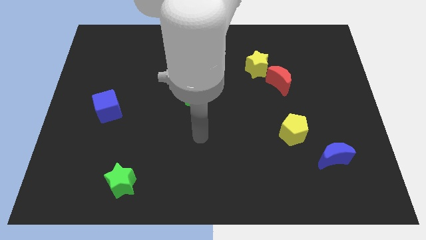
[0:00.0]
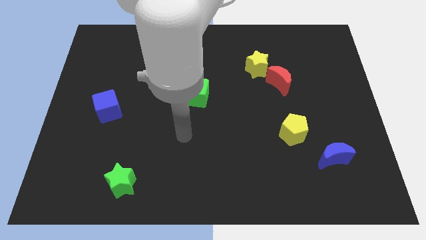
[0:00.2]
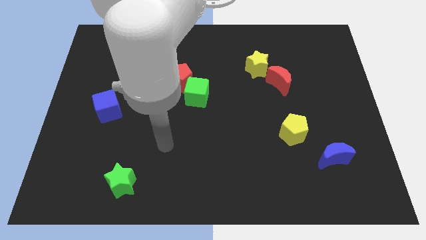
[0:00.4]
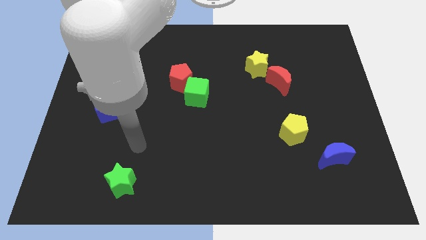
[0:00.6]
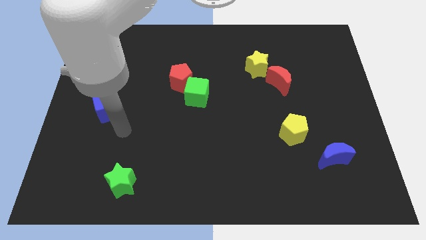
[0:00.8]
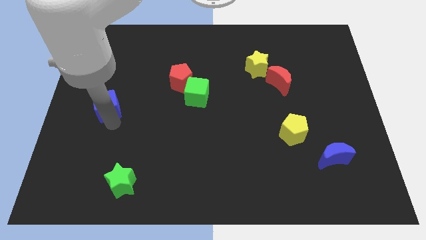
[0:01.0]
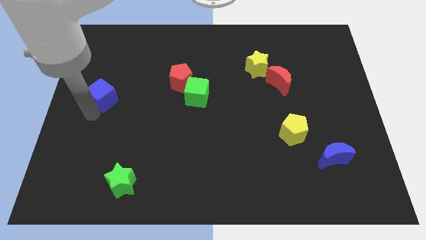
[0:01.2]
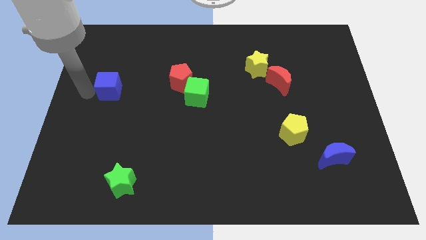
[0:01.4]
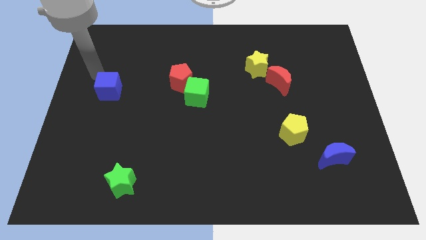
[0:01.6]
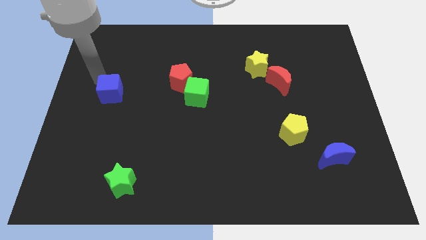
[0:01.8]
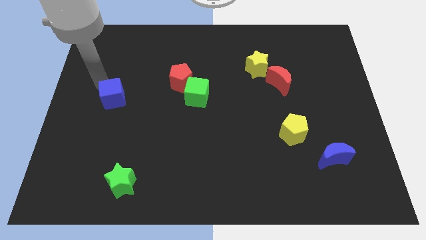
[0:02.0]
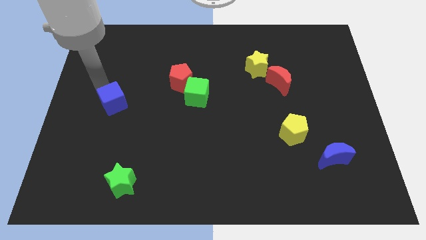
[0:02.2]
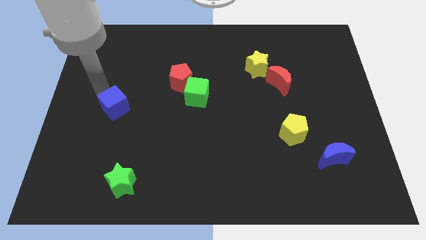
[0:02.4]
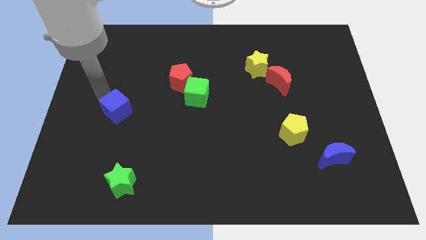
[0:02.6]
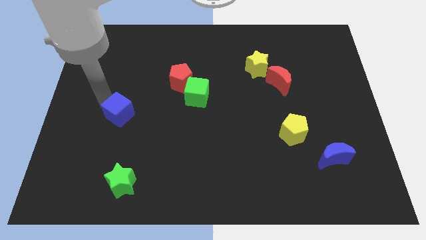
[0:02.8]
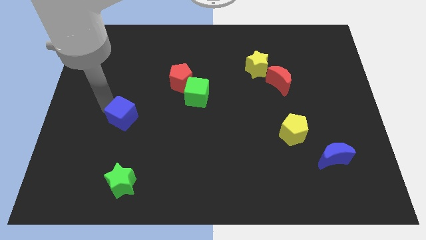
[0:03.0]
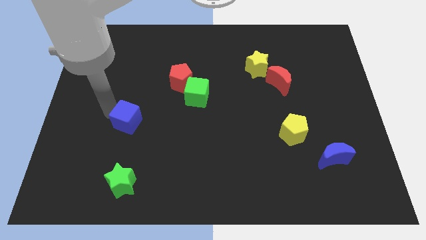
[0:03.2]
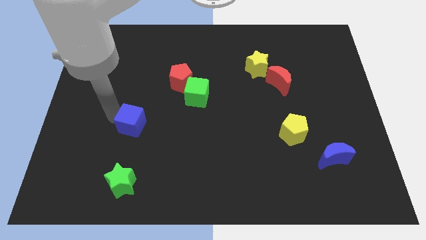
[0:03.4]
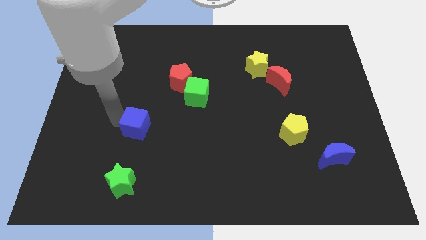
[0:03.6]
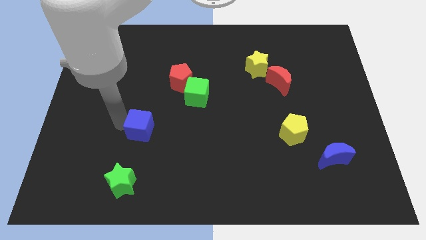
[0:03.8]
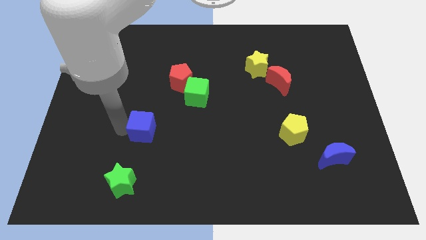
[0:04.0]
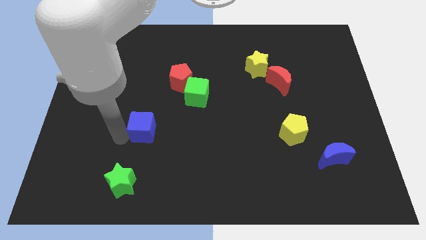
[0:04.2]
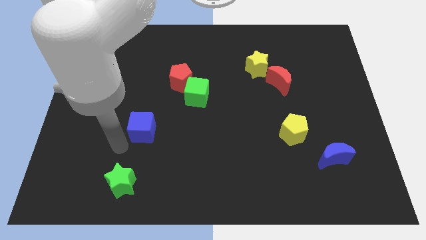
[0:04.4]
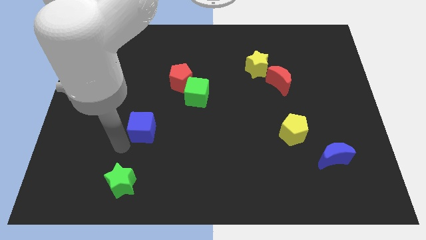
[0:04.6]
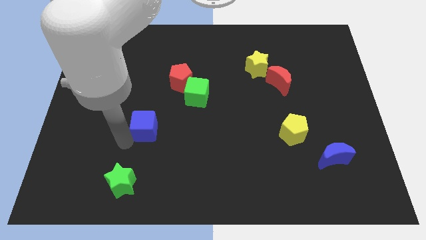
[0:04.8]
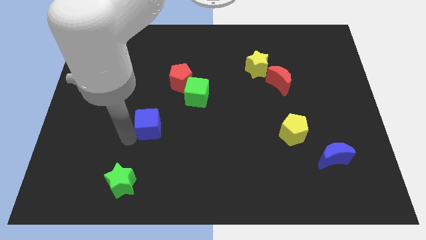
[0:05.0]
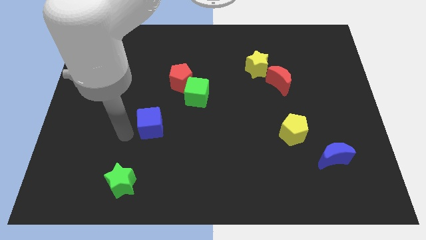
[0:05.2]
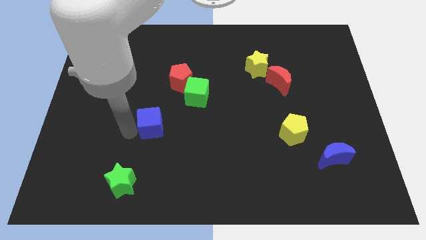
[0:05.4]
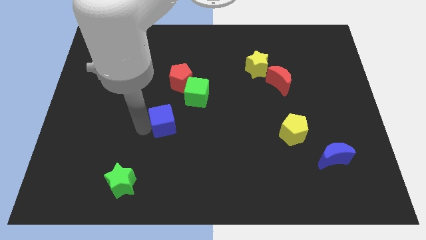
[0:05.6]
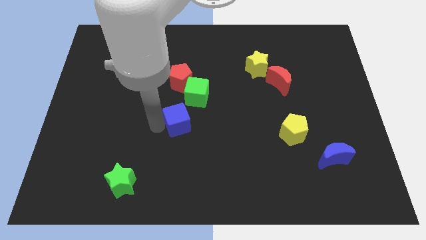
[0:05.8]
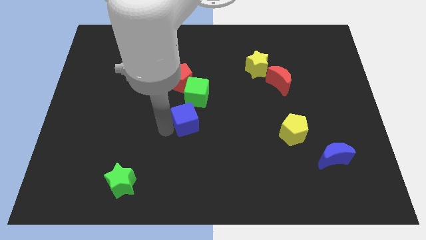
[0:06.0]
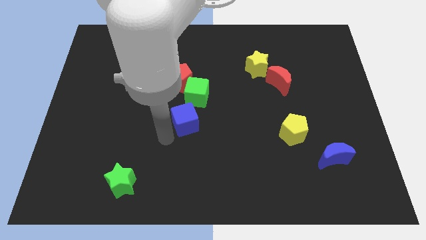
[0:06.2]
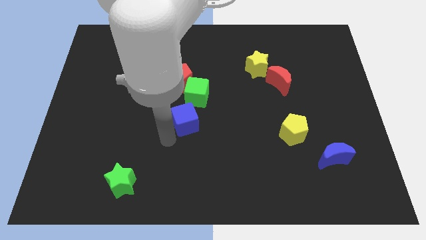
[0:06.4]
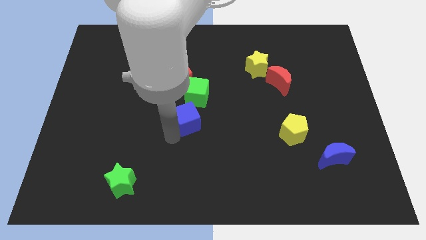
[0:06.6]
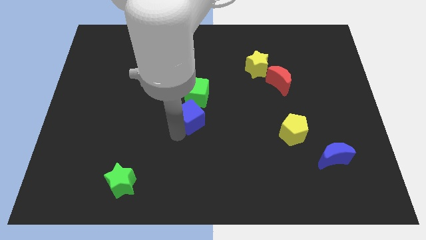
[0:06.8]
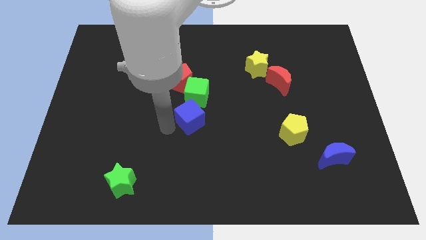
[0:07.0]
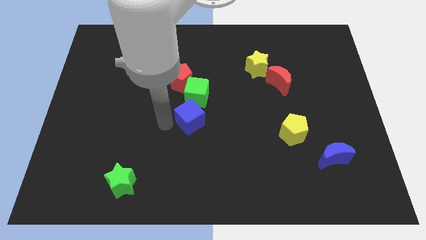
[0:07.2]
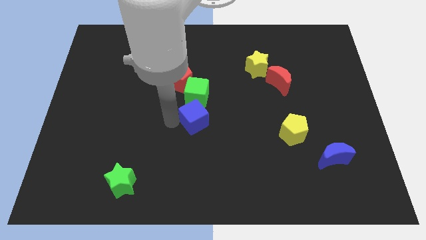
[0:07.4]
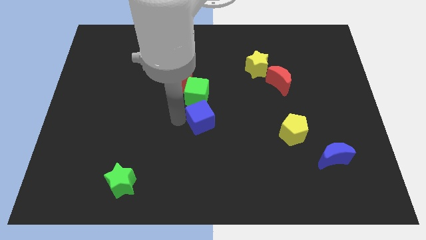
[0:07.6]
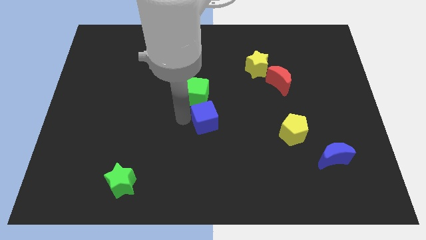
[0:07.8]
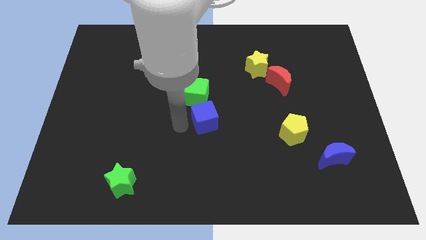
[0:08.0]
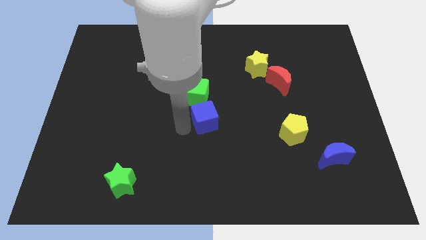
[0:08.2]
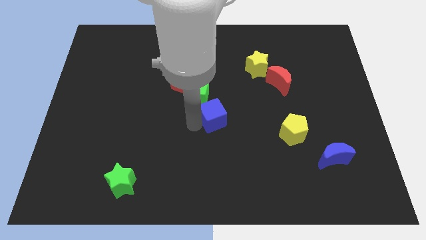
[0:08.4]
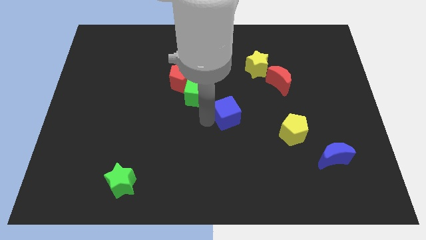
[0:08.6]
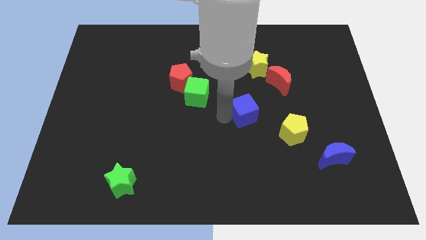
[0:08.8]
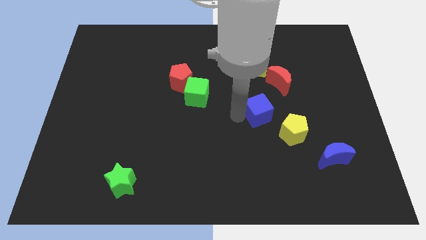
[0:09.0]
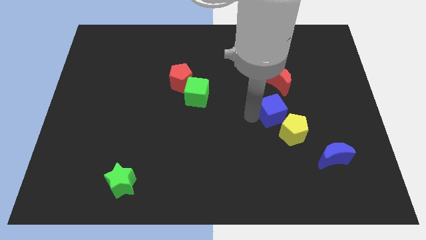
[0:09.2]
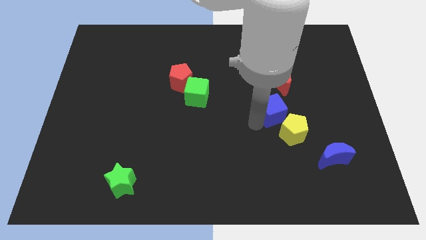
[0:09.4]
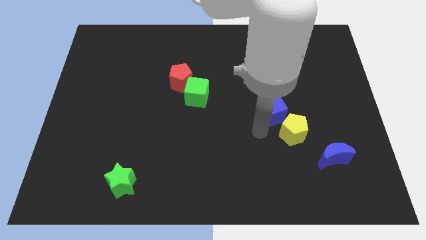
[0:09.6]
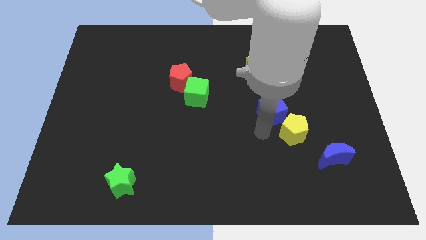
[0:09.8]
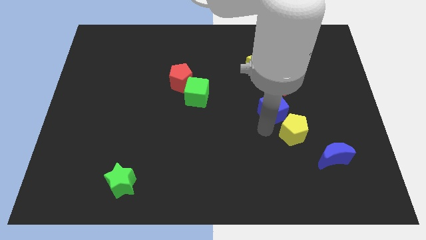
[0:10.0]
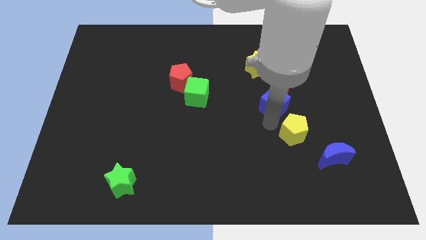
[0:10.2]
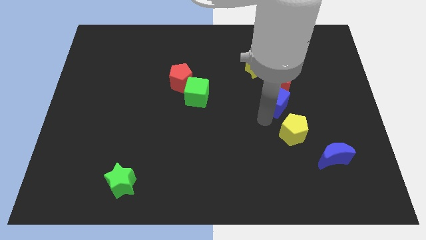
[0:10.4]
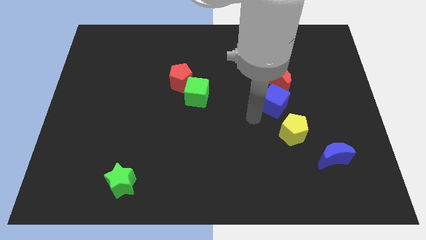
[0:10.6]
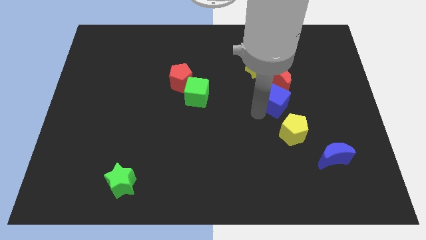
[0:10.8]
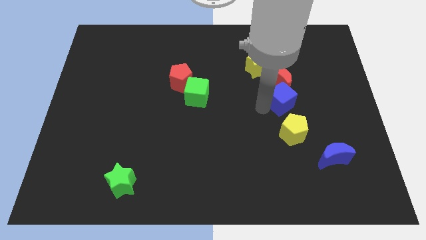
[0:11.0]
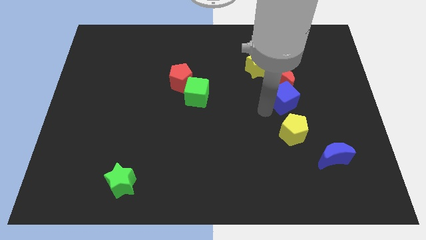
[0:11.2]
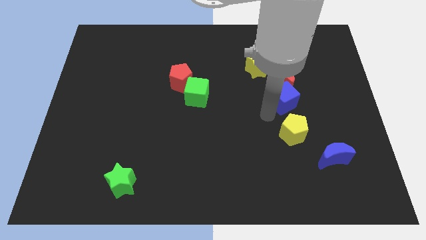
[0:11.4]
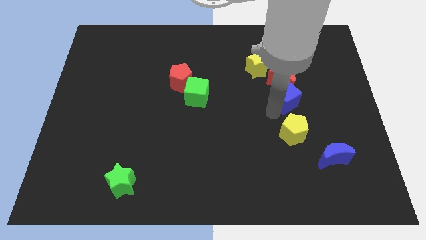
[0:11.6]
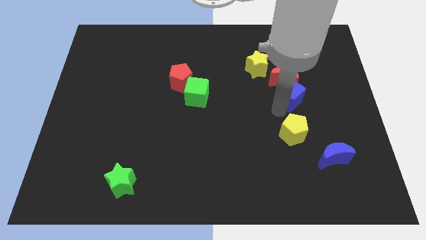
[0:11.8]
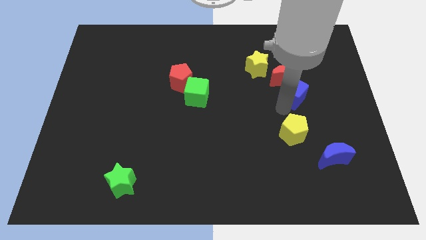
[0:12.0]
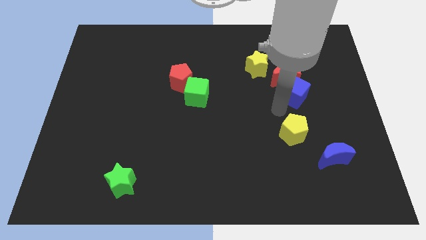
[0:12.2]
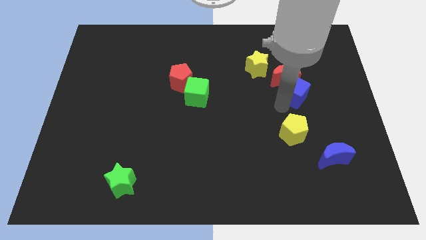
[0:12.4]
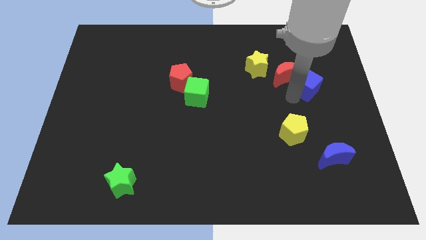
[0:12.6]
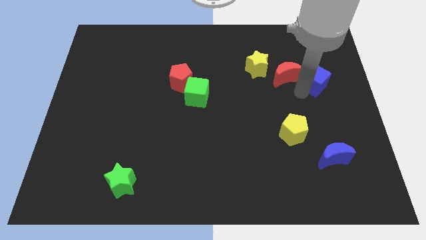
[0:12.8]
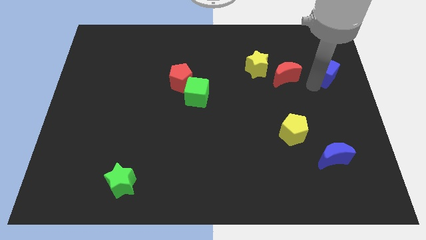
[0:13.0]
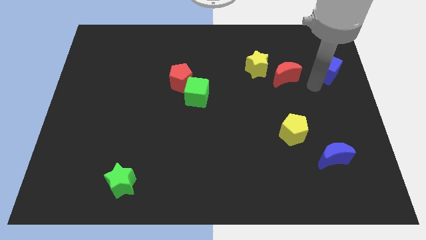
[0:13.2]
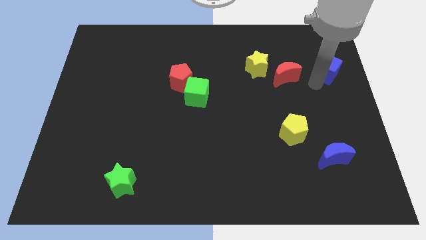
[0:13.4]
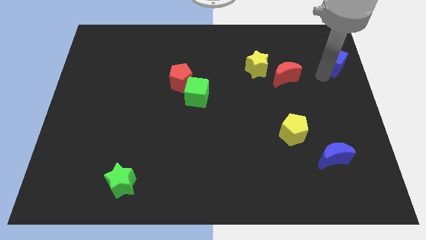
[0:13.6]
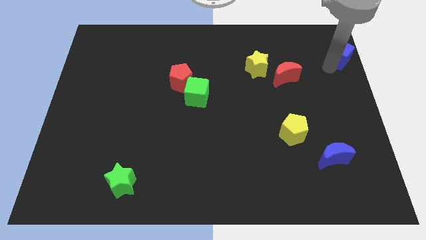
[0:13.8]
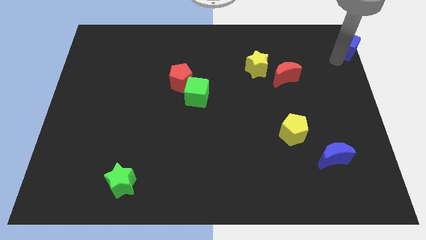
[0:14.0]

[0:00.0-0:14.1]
push the blue cube to the top right
